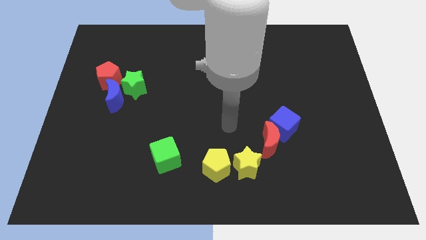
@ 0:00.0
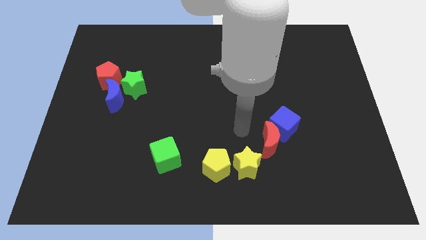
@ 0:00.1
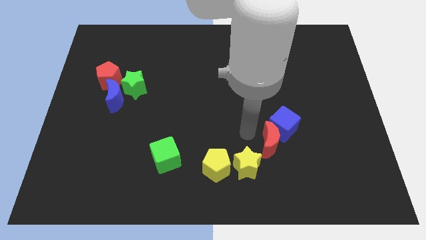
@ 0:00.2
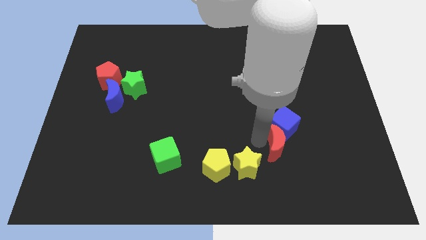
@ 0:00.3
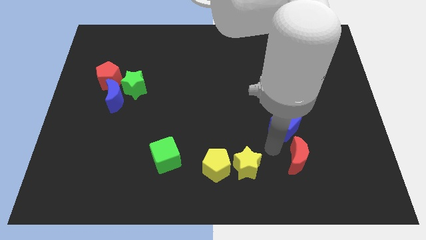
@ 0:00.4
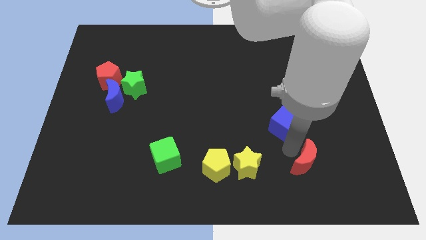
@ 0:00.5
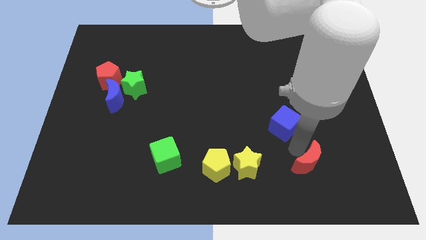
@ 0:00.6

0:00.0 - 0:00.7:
separate the blue cube from the red moon

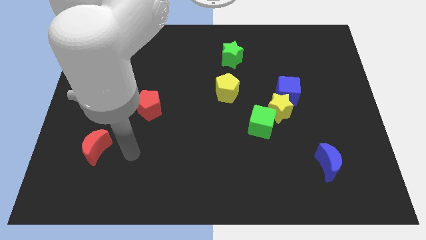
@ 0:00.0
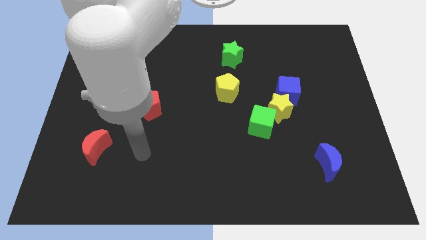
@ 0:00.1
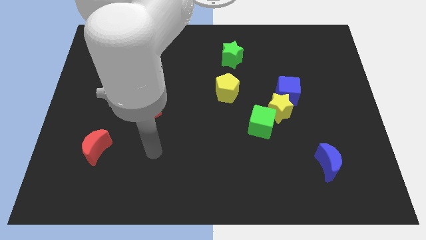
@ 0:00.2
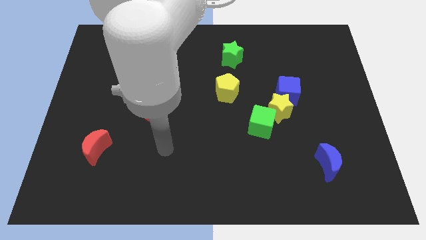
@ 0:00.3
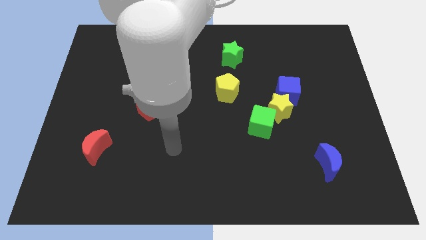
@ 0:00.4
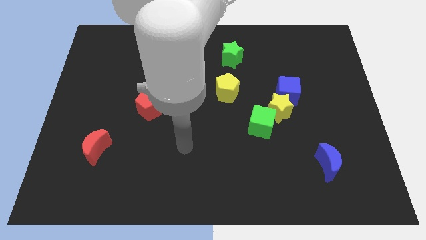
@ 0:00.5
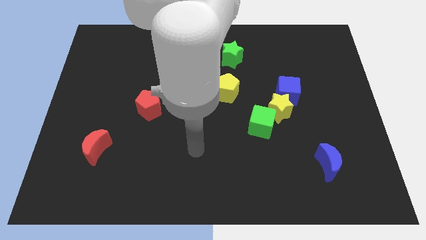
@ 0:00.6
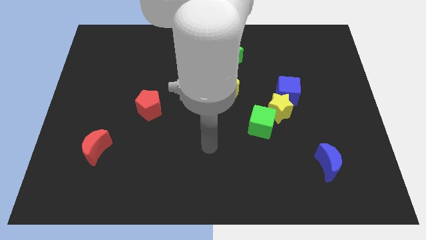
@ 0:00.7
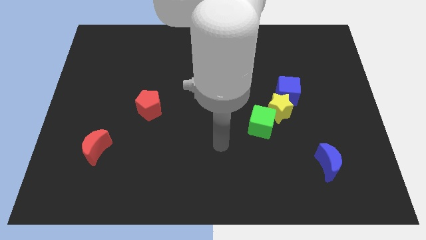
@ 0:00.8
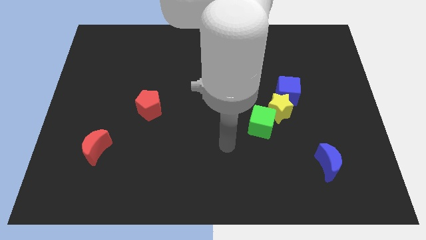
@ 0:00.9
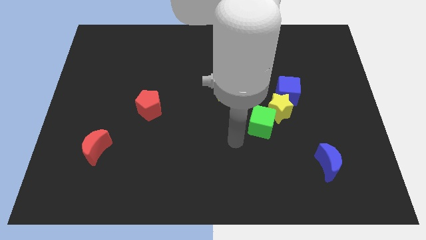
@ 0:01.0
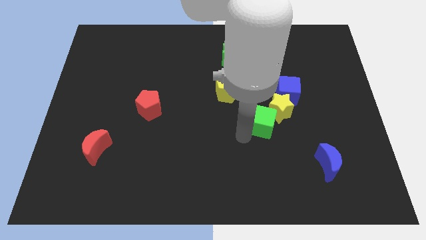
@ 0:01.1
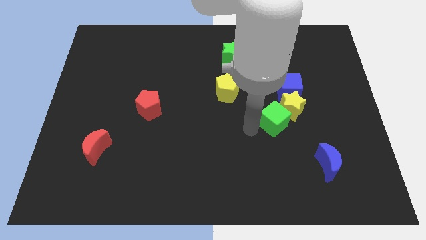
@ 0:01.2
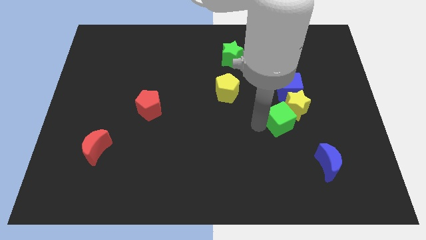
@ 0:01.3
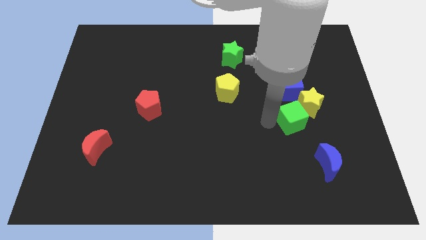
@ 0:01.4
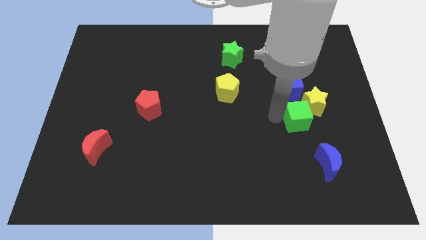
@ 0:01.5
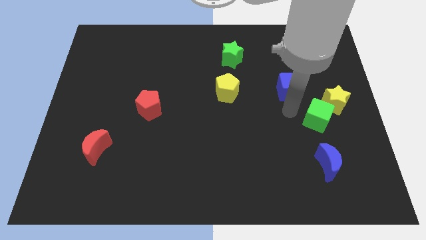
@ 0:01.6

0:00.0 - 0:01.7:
pull the blue cube apart from the yellow star

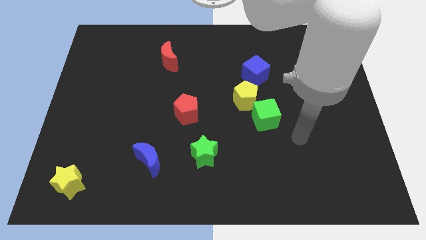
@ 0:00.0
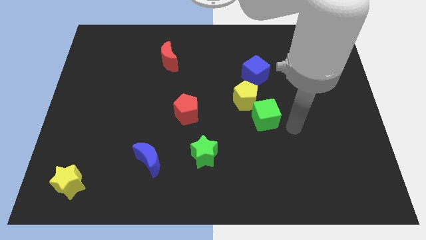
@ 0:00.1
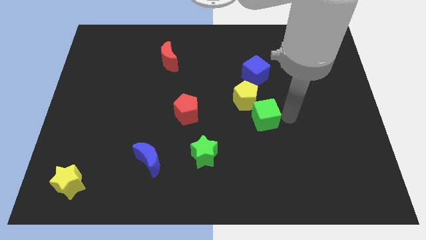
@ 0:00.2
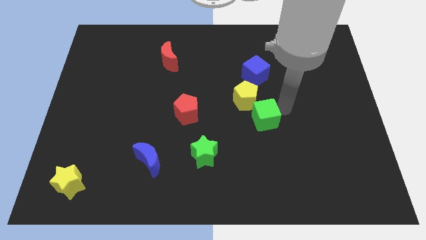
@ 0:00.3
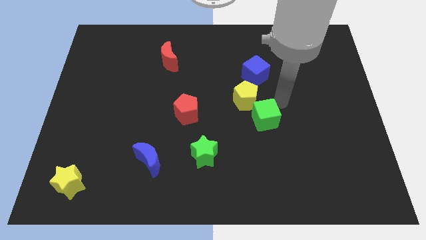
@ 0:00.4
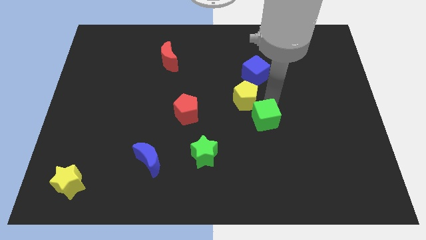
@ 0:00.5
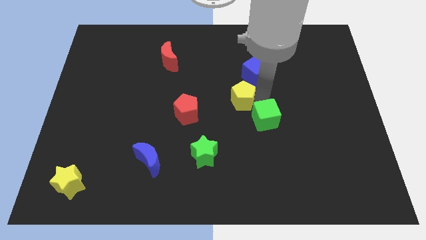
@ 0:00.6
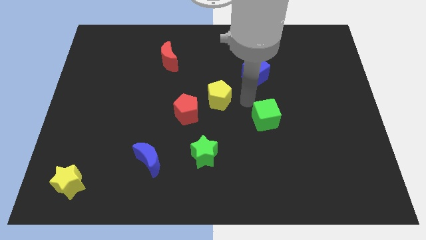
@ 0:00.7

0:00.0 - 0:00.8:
pull the green cube apart from the yellow pentagon

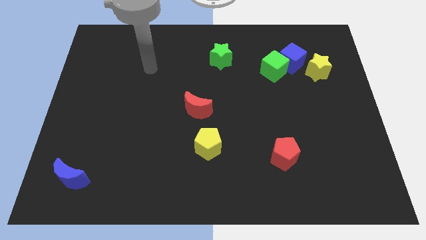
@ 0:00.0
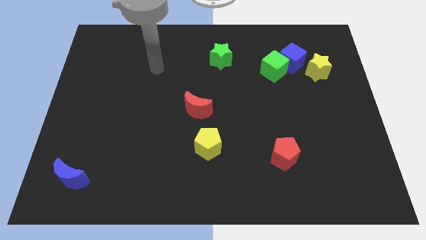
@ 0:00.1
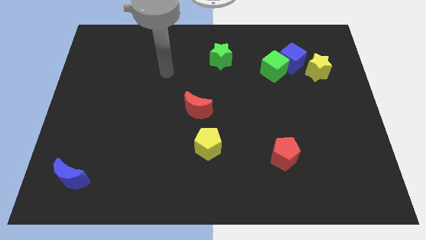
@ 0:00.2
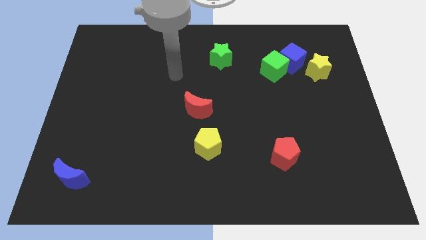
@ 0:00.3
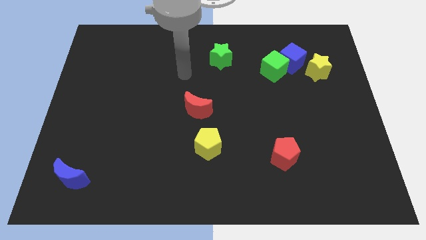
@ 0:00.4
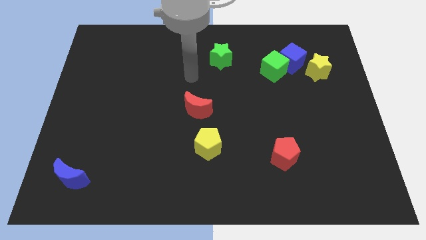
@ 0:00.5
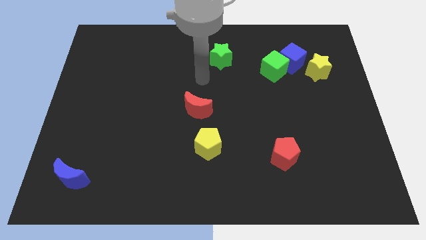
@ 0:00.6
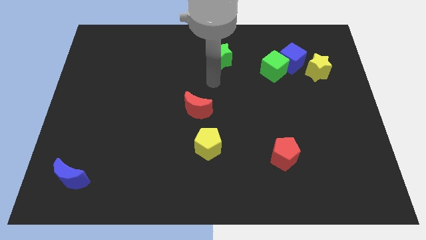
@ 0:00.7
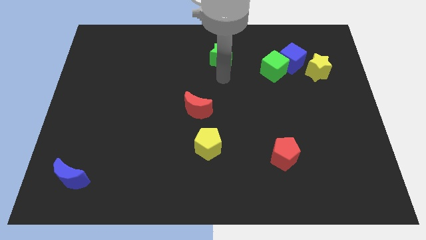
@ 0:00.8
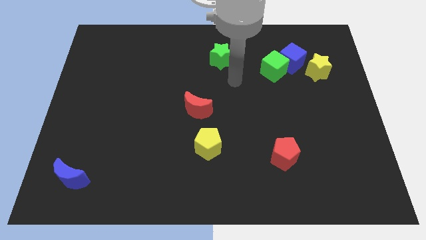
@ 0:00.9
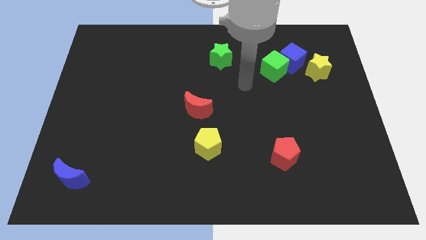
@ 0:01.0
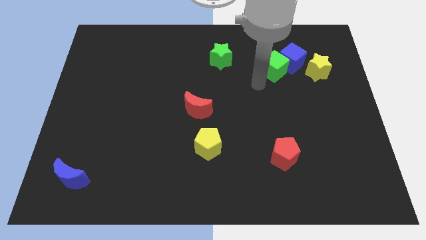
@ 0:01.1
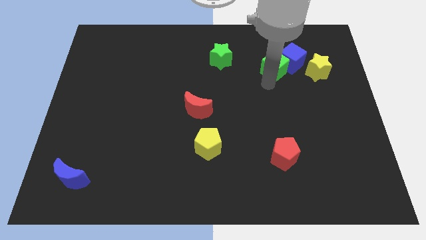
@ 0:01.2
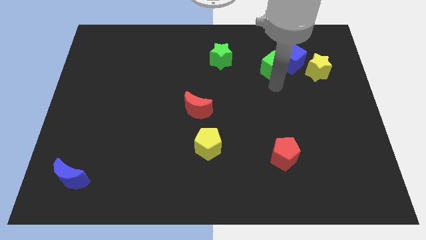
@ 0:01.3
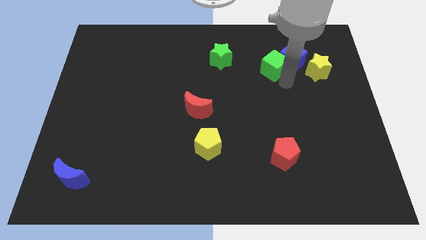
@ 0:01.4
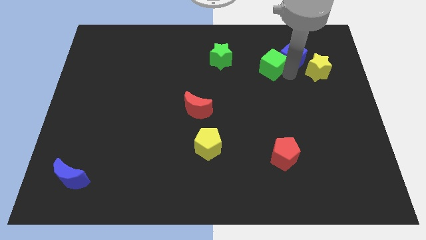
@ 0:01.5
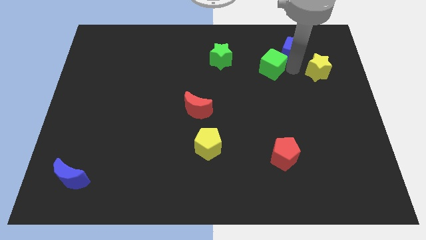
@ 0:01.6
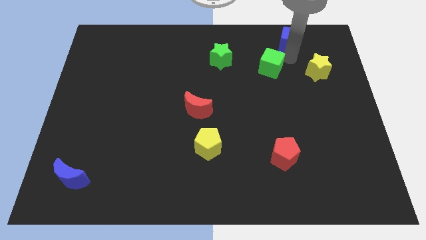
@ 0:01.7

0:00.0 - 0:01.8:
separate the green cube from the blue cube

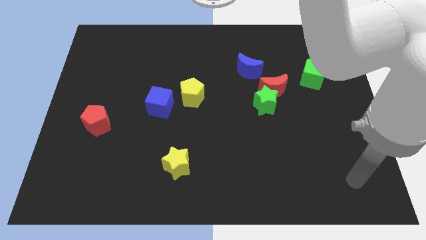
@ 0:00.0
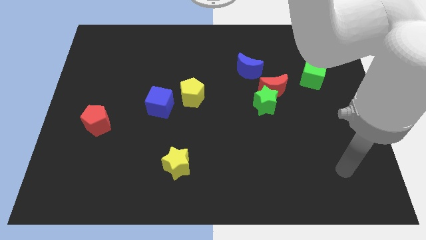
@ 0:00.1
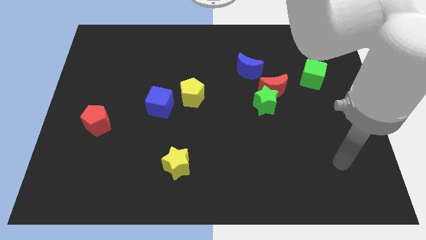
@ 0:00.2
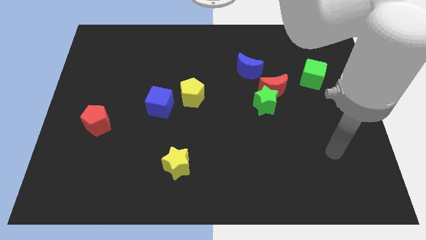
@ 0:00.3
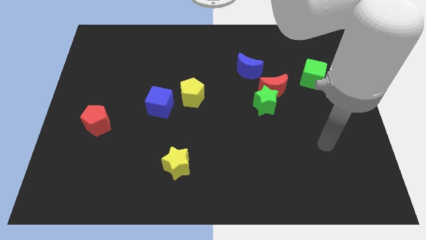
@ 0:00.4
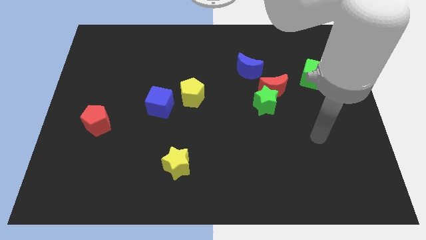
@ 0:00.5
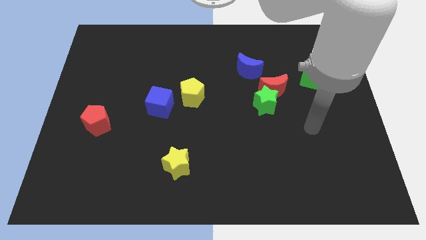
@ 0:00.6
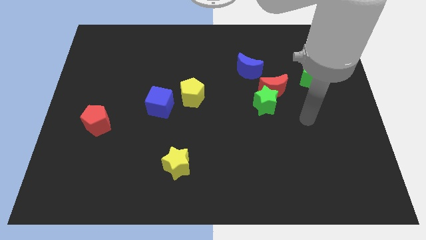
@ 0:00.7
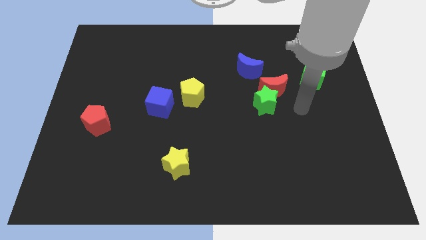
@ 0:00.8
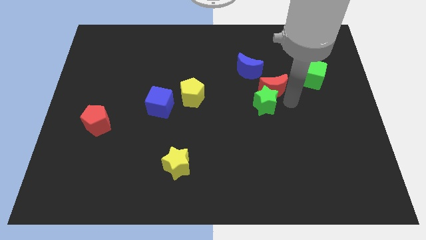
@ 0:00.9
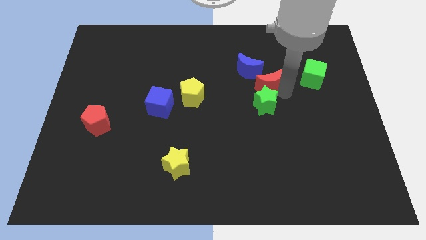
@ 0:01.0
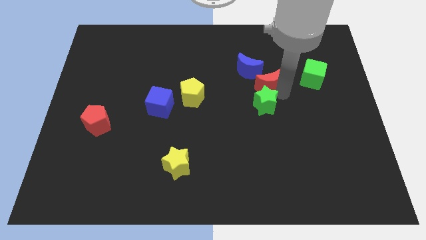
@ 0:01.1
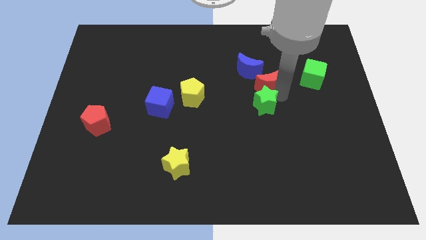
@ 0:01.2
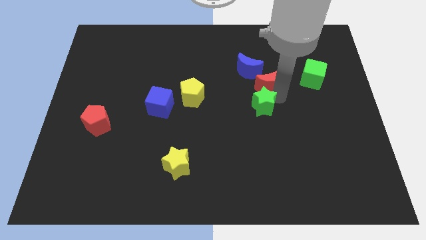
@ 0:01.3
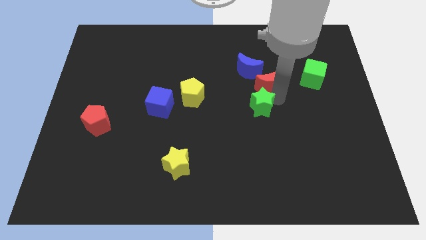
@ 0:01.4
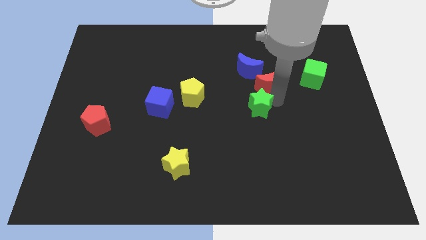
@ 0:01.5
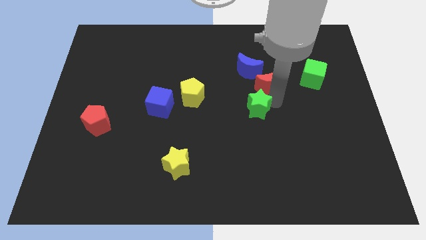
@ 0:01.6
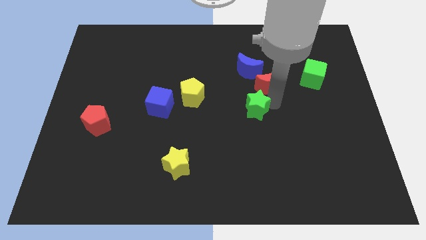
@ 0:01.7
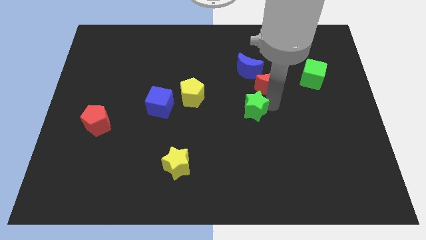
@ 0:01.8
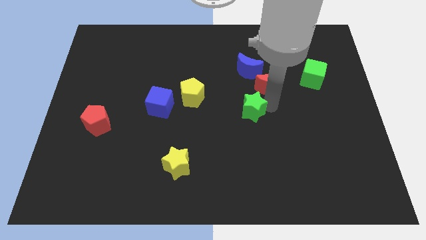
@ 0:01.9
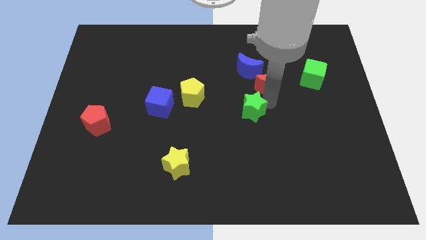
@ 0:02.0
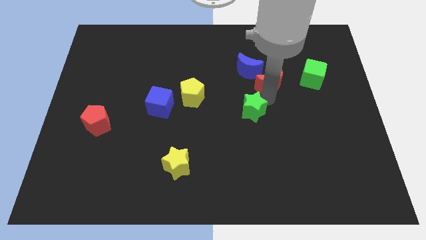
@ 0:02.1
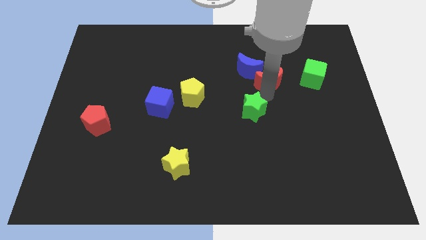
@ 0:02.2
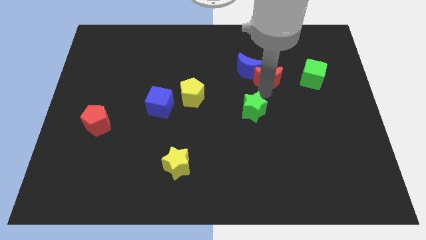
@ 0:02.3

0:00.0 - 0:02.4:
separate the green star from the red moon

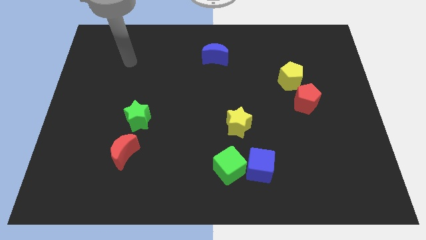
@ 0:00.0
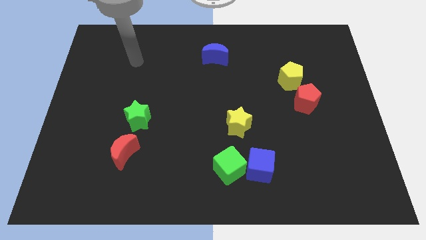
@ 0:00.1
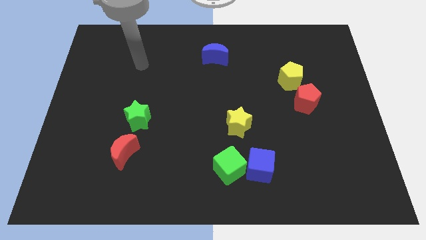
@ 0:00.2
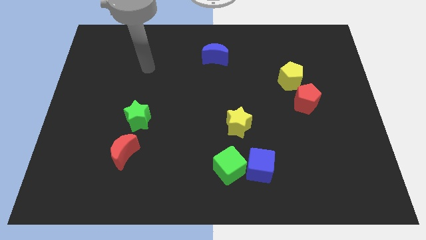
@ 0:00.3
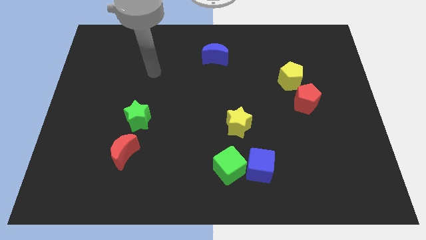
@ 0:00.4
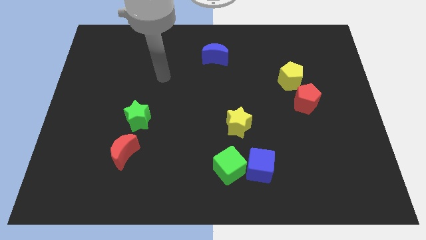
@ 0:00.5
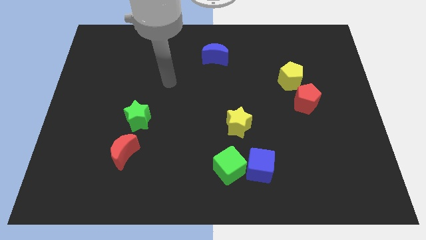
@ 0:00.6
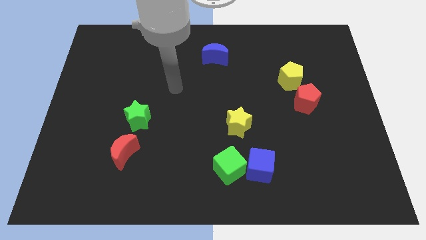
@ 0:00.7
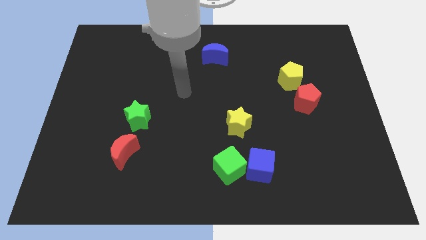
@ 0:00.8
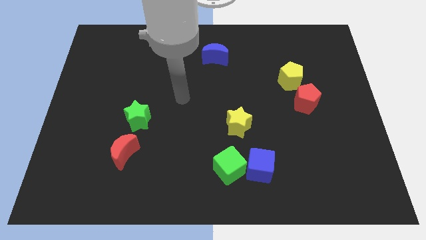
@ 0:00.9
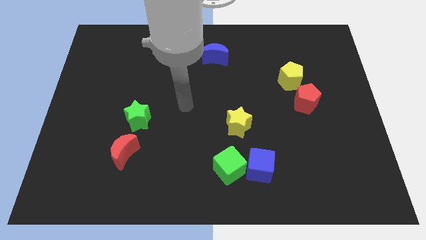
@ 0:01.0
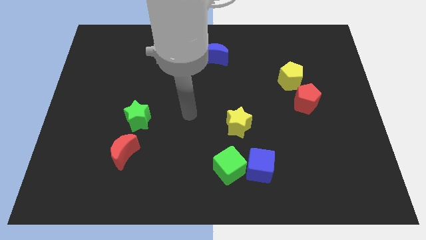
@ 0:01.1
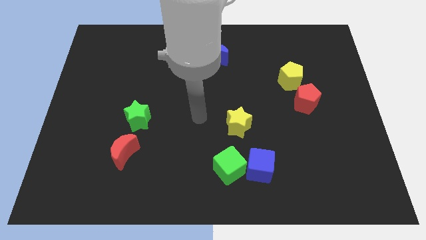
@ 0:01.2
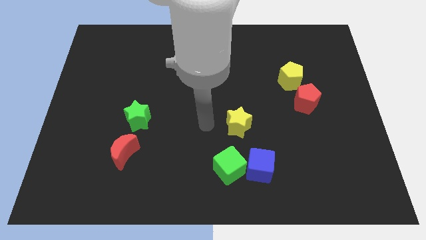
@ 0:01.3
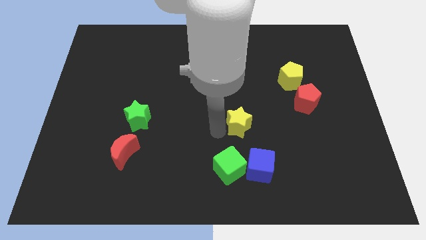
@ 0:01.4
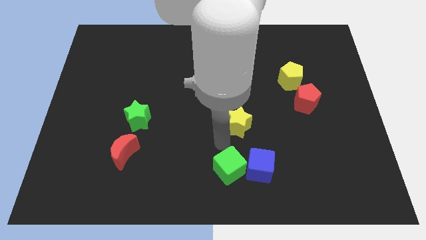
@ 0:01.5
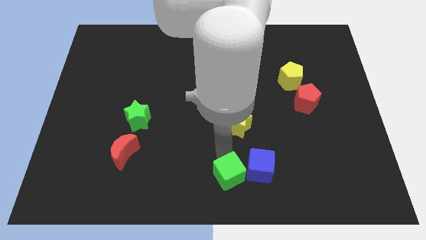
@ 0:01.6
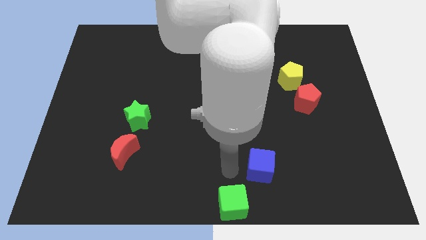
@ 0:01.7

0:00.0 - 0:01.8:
move the blue cube away from the green cube
